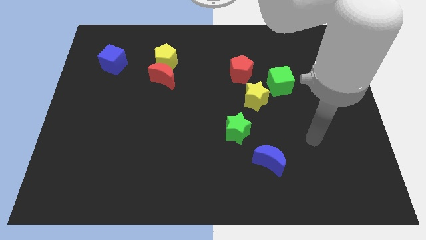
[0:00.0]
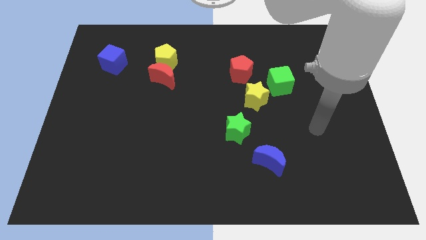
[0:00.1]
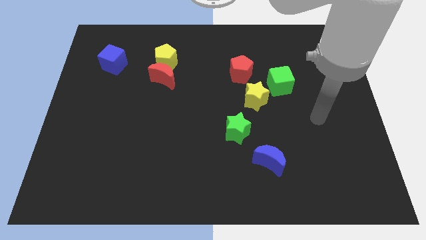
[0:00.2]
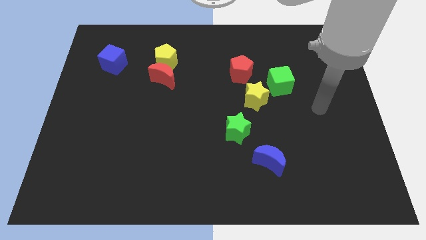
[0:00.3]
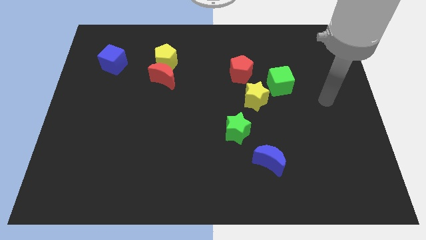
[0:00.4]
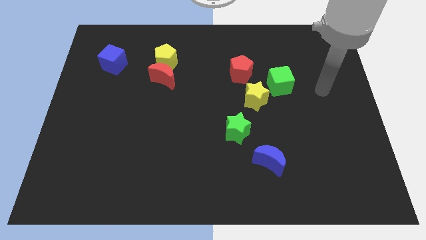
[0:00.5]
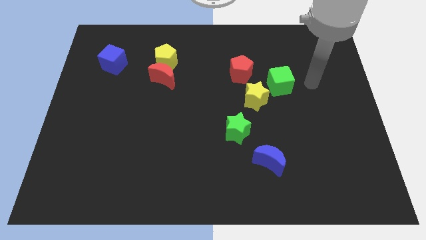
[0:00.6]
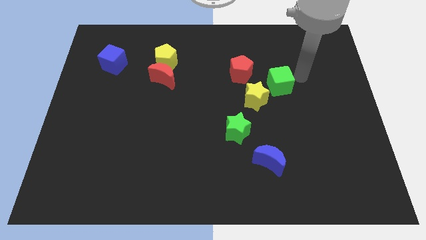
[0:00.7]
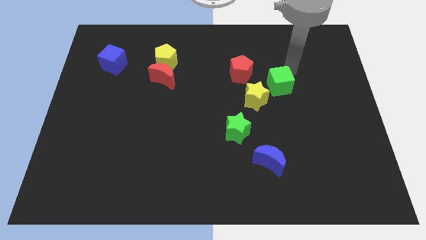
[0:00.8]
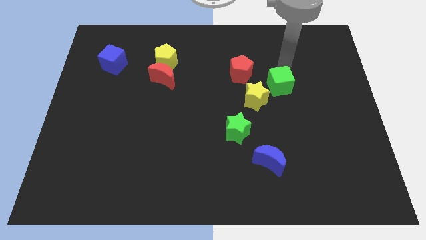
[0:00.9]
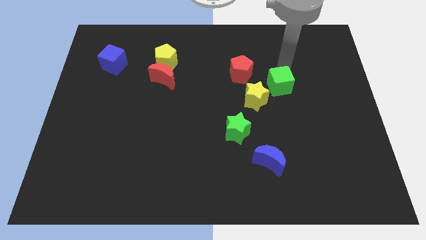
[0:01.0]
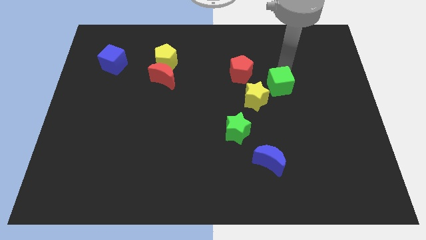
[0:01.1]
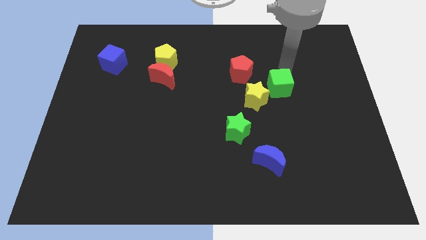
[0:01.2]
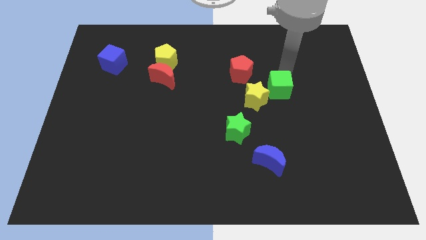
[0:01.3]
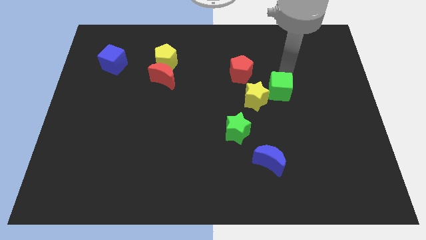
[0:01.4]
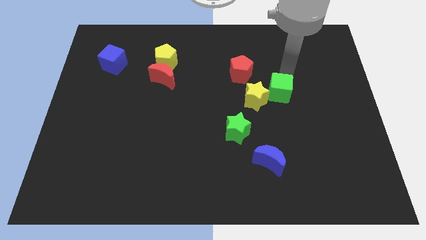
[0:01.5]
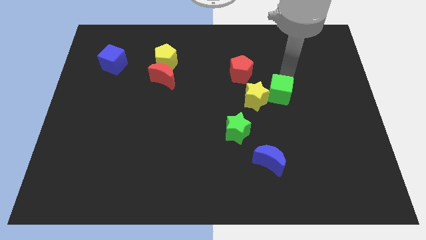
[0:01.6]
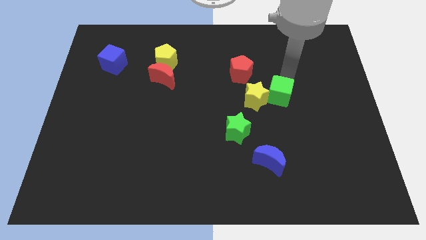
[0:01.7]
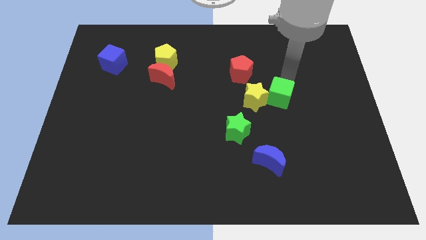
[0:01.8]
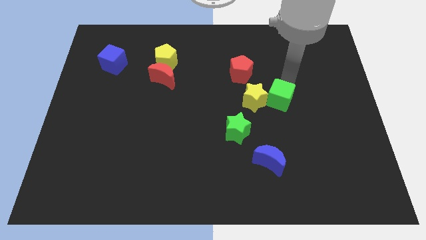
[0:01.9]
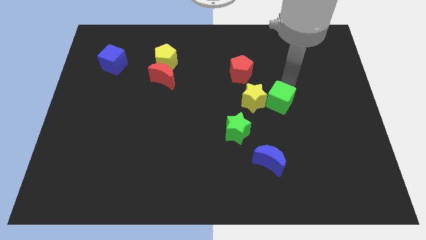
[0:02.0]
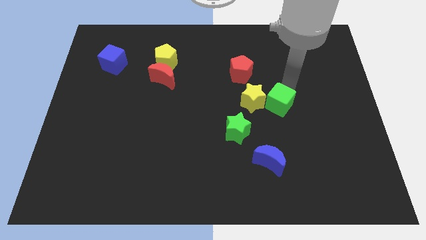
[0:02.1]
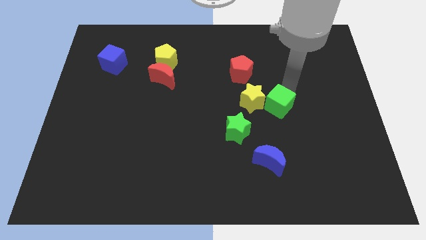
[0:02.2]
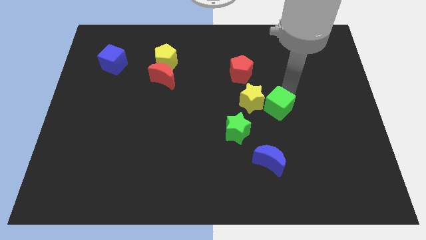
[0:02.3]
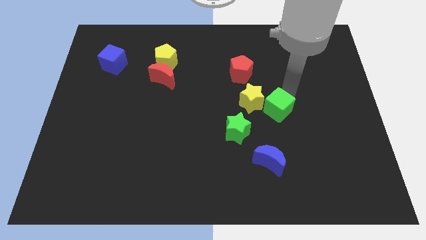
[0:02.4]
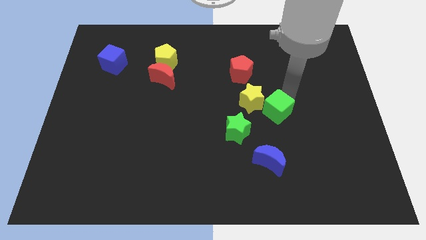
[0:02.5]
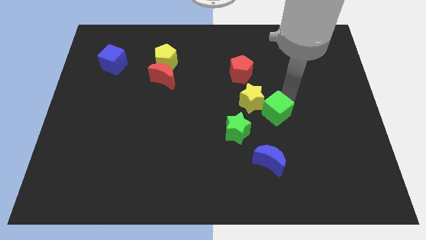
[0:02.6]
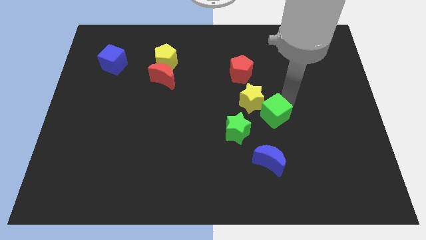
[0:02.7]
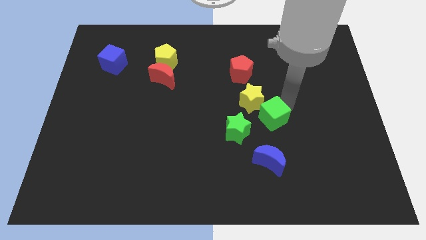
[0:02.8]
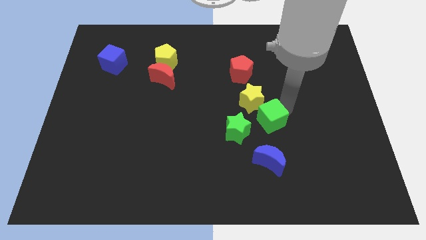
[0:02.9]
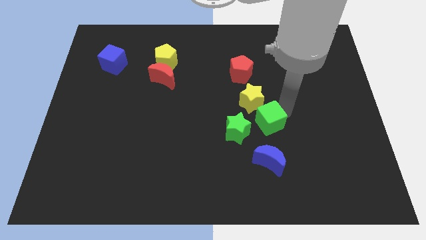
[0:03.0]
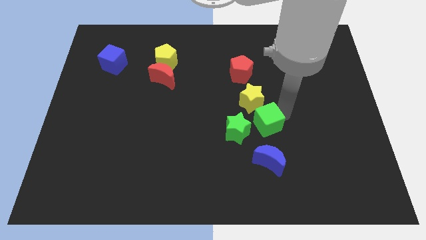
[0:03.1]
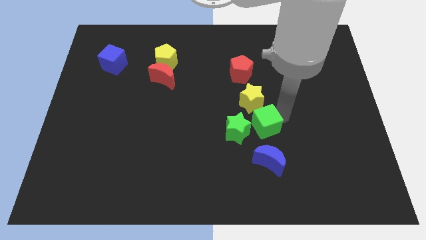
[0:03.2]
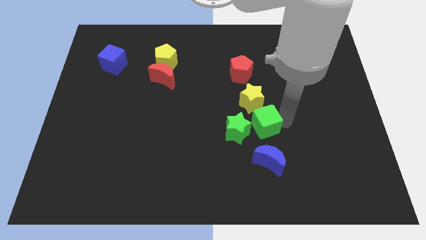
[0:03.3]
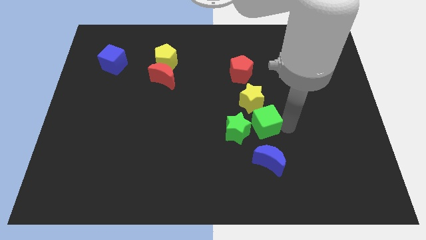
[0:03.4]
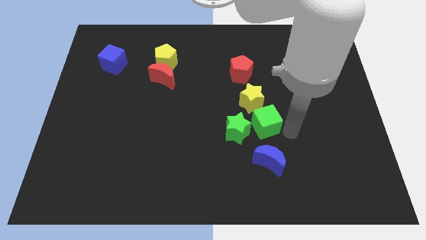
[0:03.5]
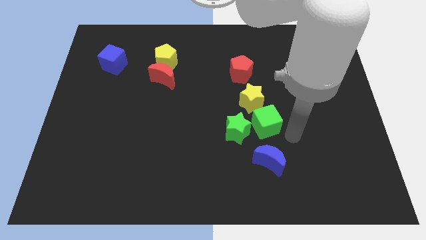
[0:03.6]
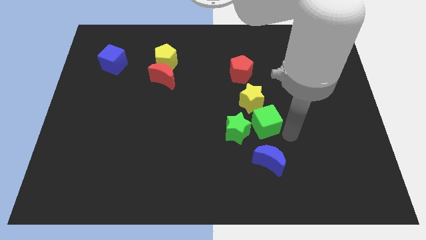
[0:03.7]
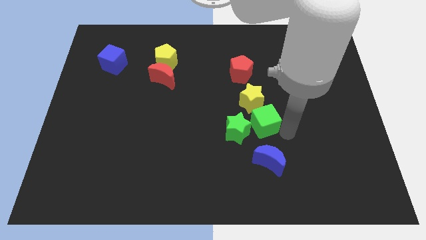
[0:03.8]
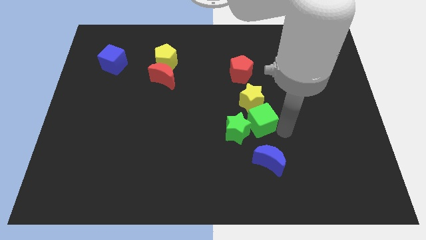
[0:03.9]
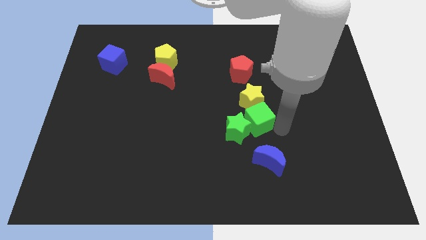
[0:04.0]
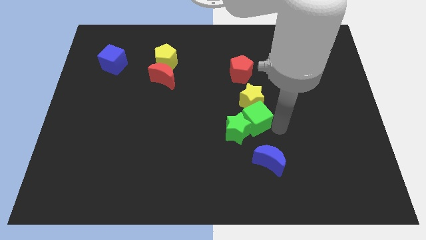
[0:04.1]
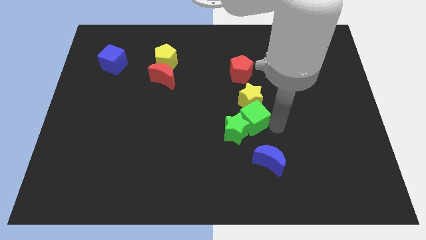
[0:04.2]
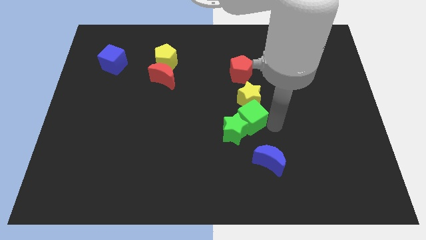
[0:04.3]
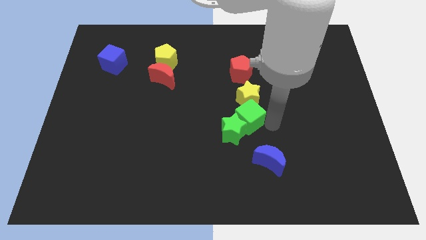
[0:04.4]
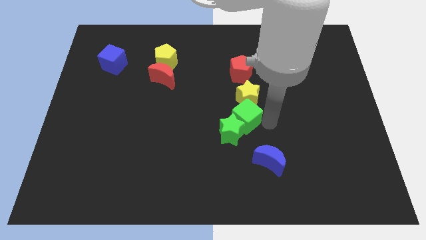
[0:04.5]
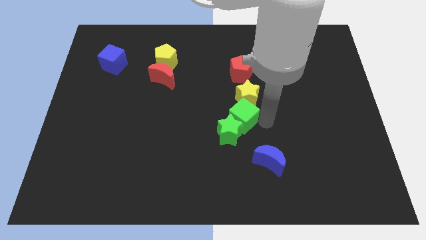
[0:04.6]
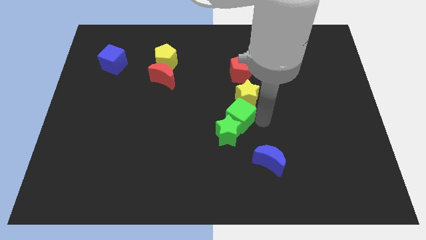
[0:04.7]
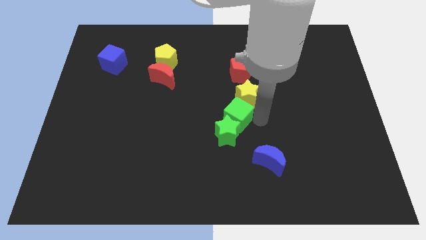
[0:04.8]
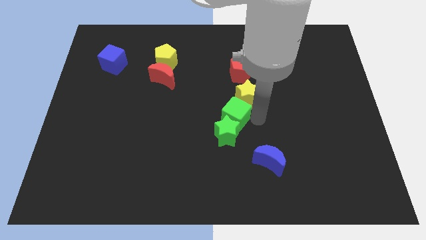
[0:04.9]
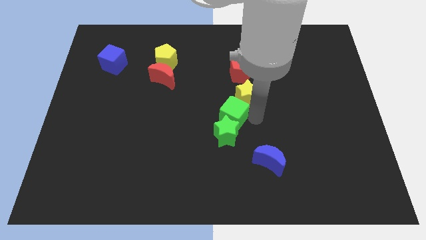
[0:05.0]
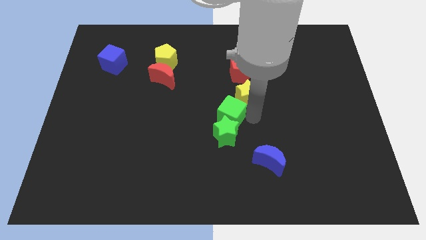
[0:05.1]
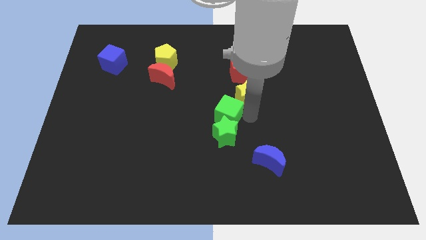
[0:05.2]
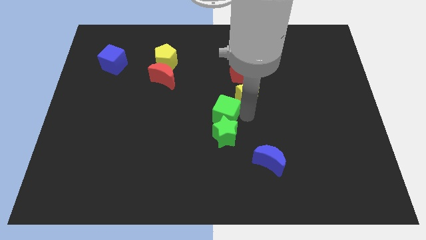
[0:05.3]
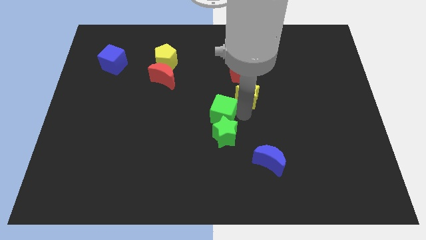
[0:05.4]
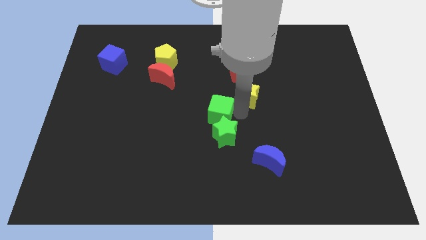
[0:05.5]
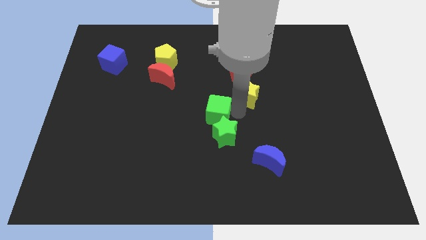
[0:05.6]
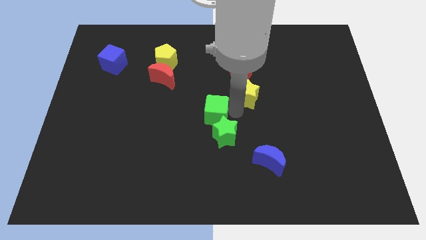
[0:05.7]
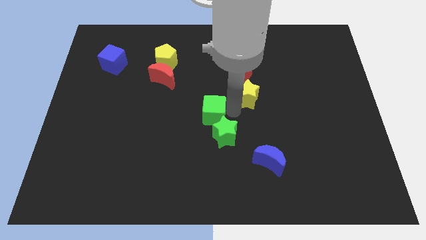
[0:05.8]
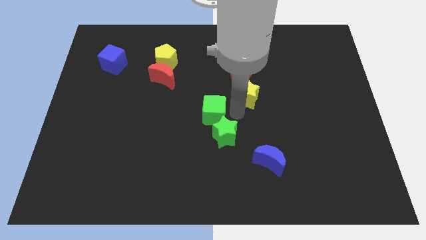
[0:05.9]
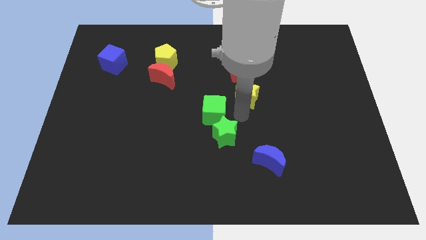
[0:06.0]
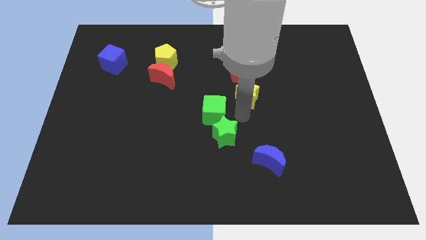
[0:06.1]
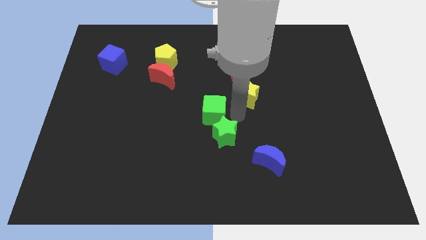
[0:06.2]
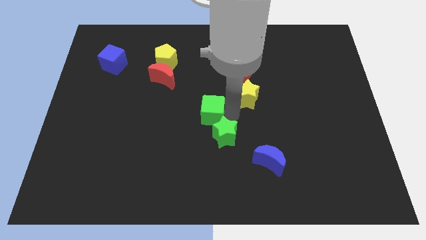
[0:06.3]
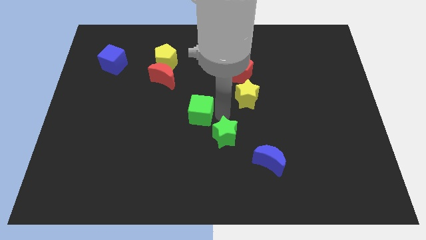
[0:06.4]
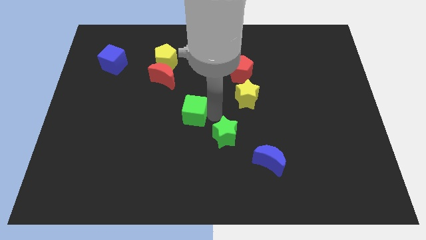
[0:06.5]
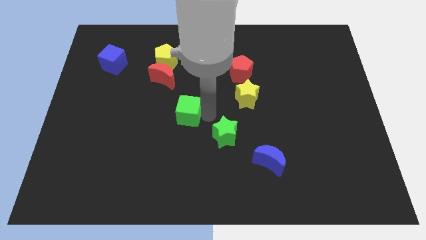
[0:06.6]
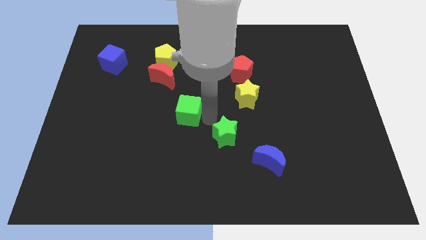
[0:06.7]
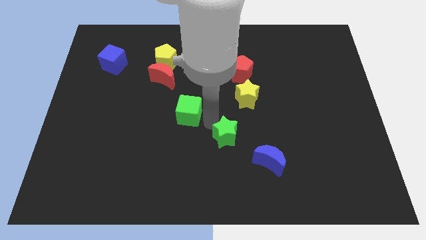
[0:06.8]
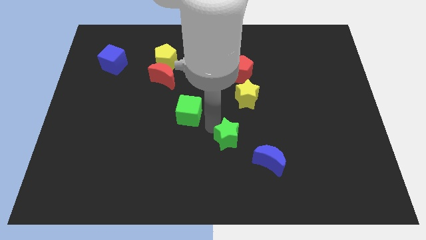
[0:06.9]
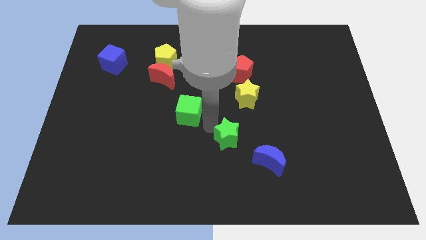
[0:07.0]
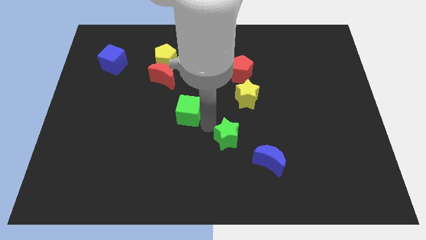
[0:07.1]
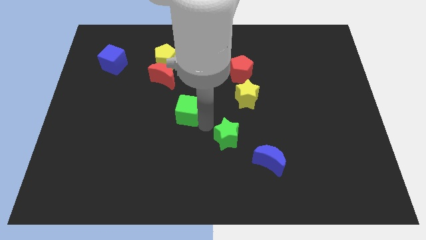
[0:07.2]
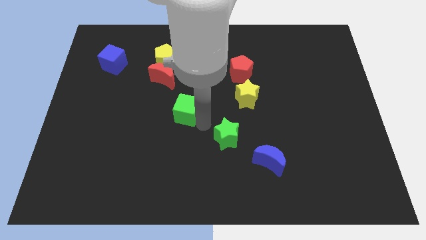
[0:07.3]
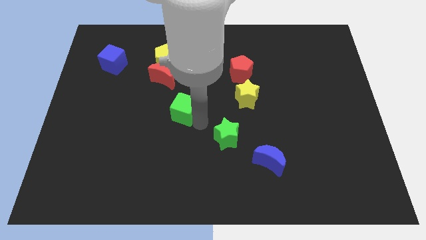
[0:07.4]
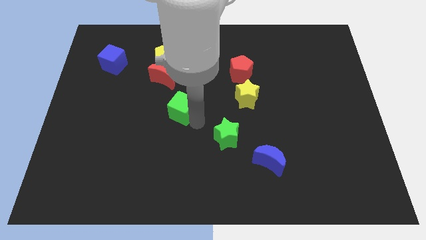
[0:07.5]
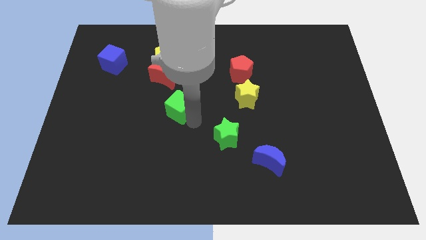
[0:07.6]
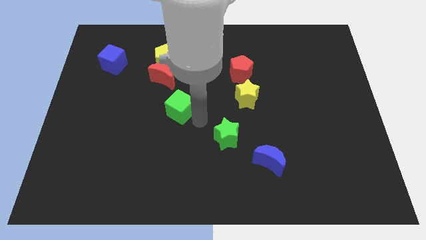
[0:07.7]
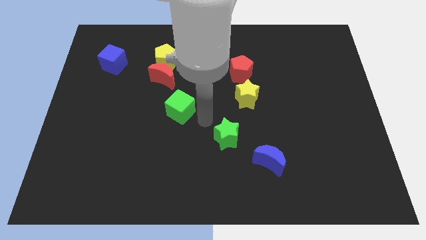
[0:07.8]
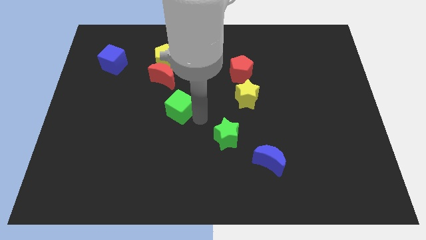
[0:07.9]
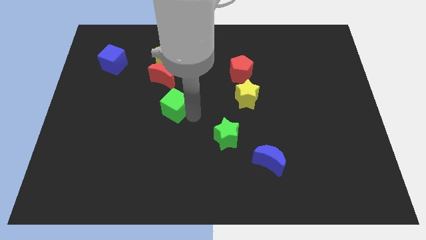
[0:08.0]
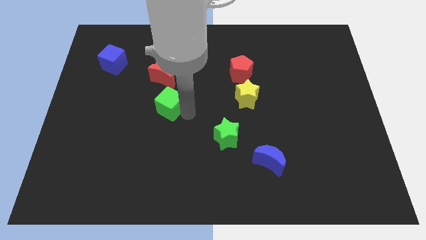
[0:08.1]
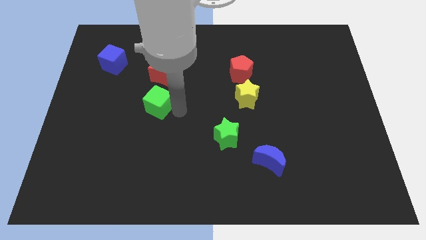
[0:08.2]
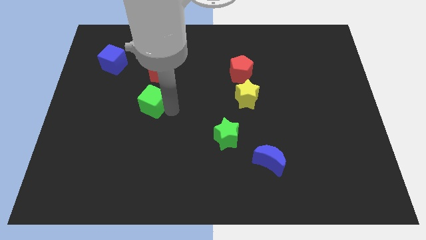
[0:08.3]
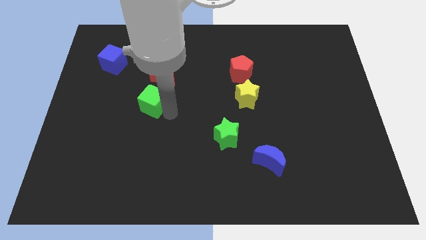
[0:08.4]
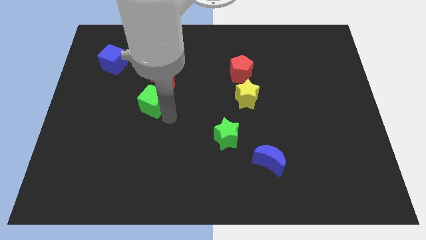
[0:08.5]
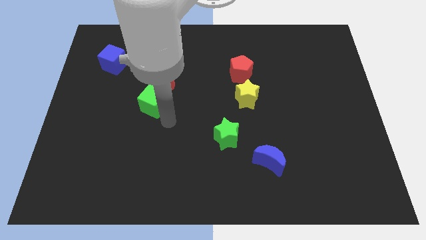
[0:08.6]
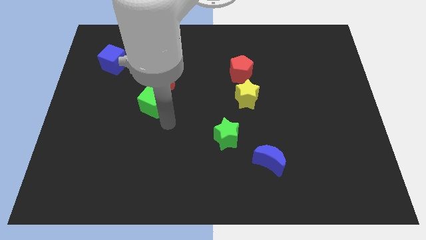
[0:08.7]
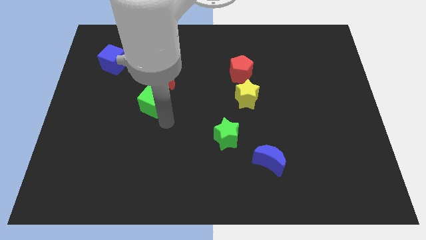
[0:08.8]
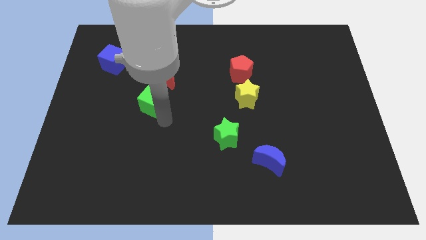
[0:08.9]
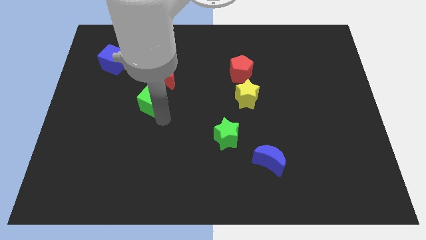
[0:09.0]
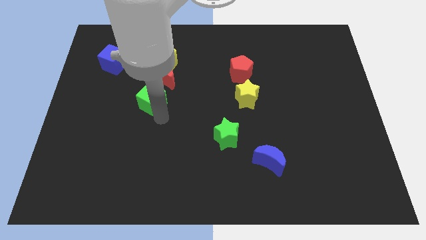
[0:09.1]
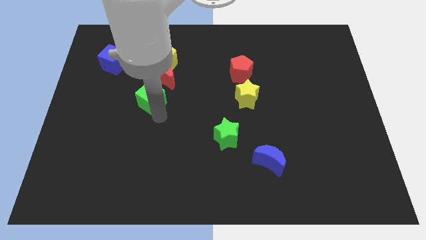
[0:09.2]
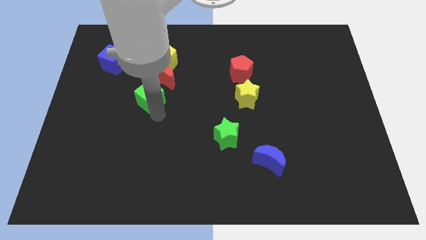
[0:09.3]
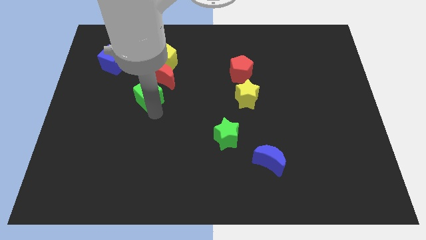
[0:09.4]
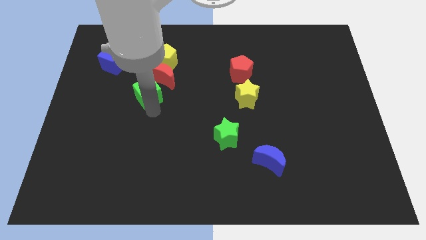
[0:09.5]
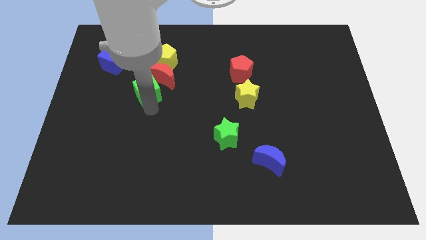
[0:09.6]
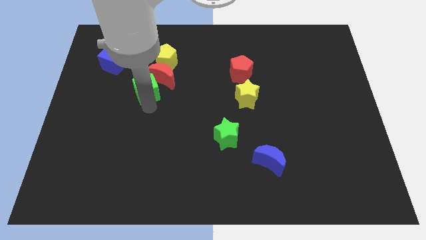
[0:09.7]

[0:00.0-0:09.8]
slide the green cube to the bottom left of the yellow pentagon
